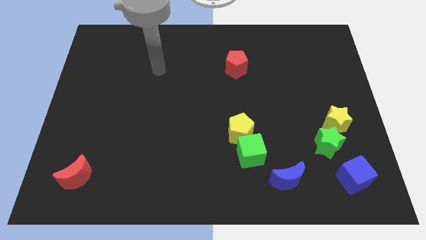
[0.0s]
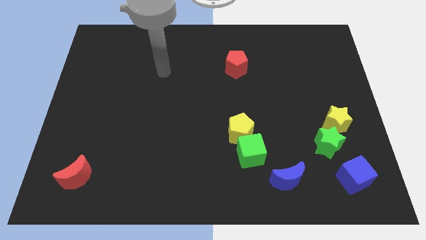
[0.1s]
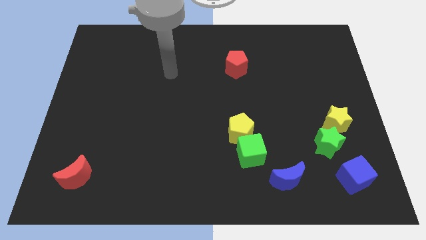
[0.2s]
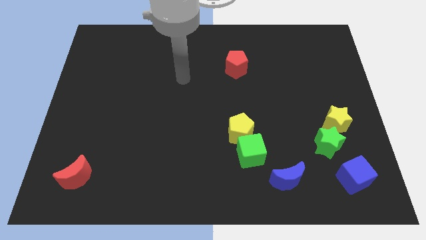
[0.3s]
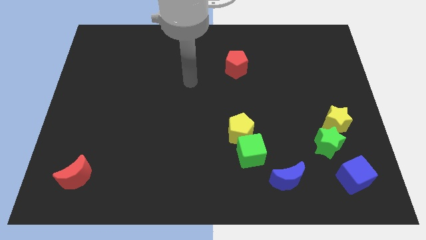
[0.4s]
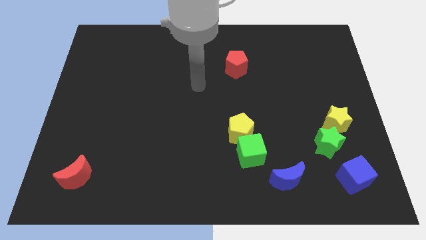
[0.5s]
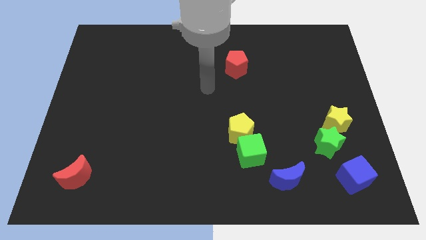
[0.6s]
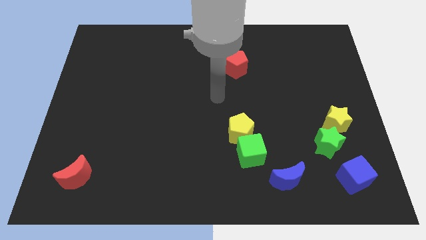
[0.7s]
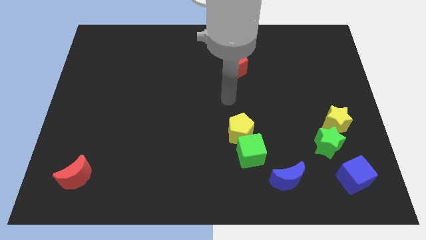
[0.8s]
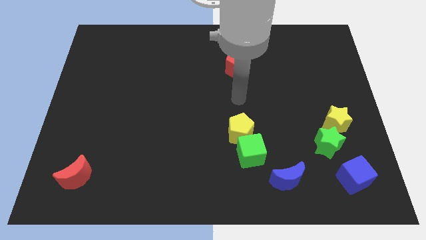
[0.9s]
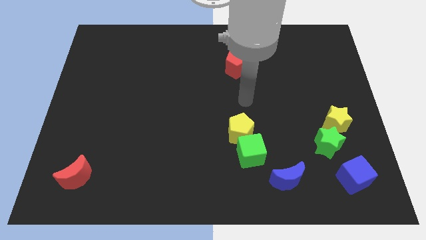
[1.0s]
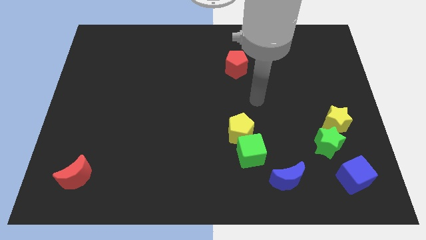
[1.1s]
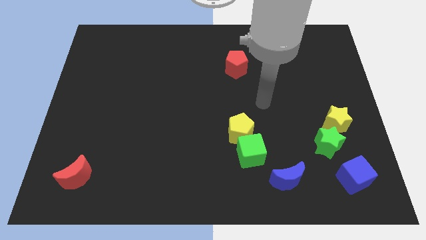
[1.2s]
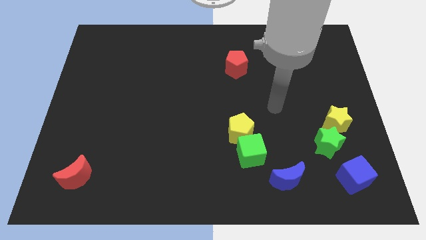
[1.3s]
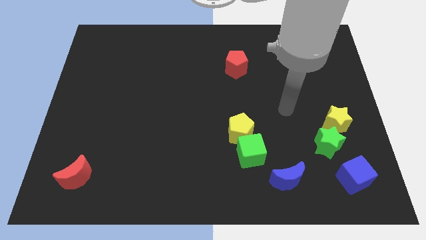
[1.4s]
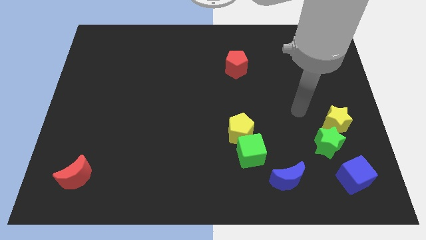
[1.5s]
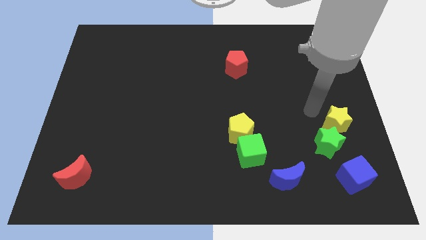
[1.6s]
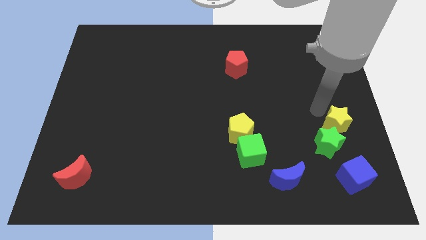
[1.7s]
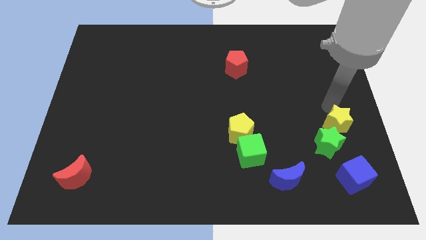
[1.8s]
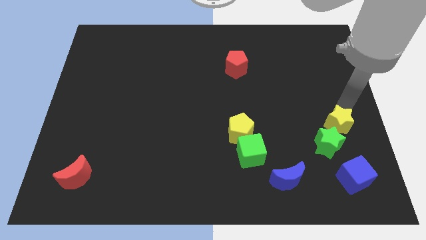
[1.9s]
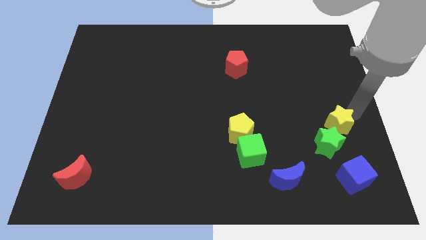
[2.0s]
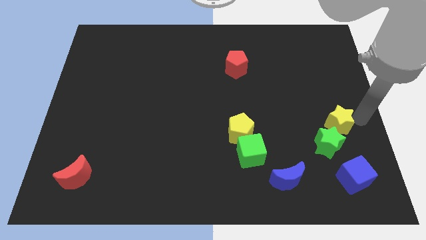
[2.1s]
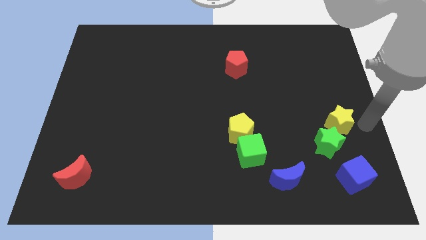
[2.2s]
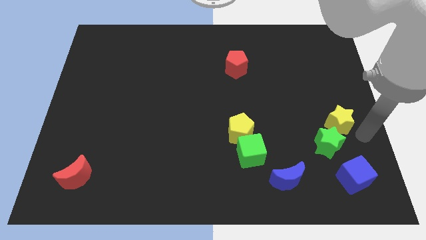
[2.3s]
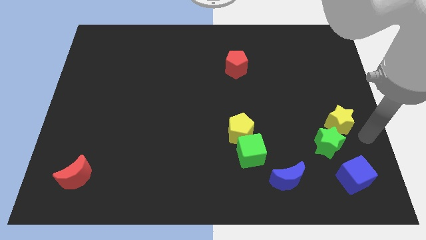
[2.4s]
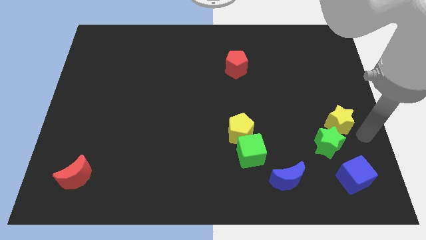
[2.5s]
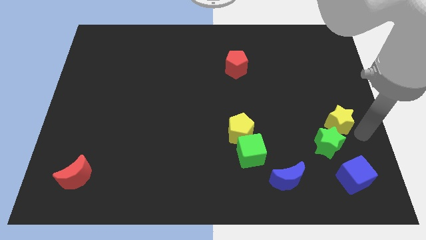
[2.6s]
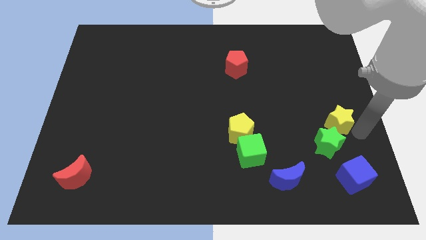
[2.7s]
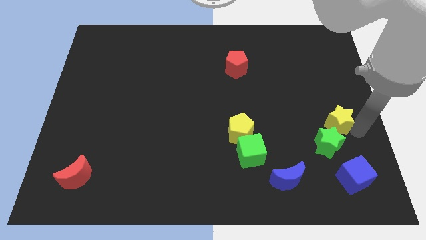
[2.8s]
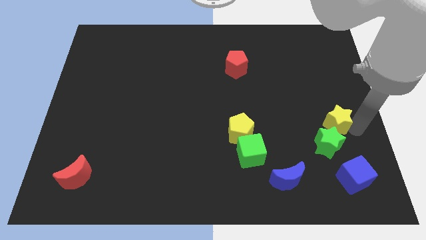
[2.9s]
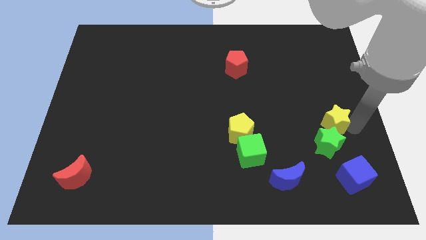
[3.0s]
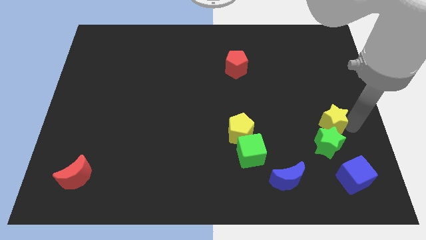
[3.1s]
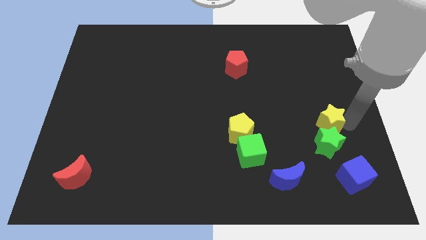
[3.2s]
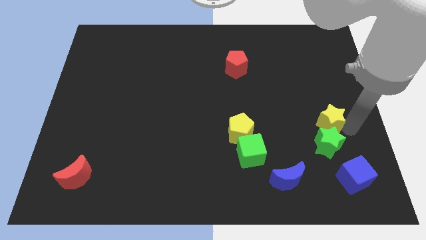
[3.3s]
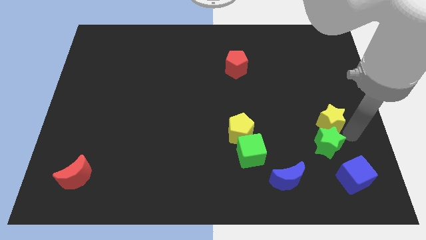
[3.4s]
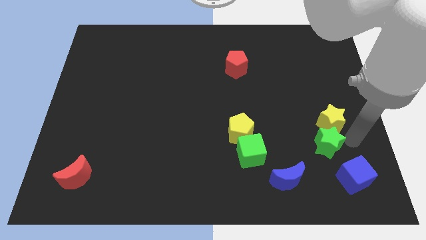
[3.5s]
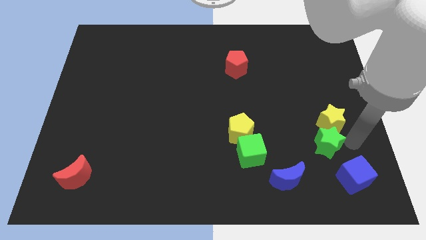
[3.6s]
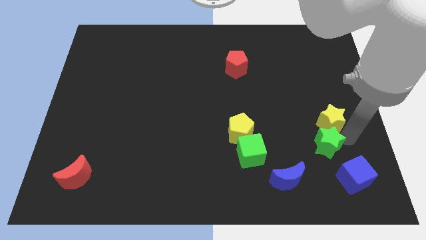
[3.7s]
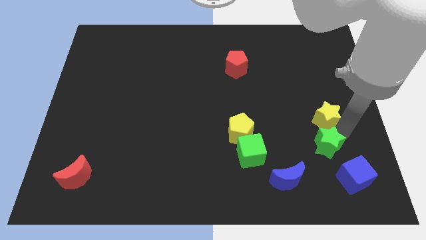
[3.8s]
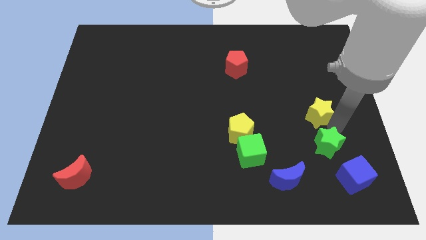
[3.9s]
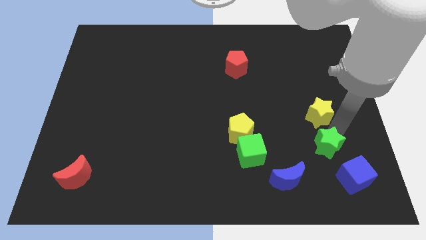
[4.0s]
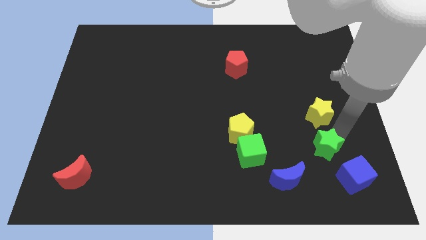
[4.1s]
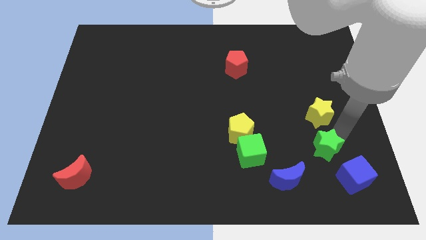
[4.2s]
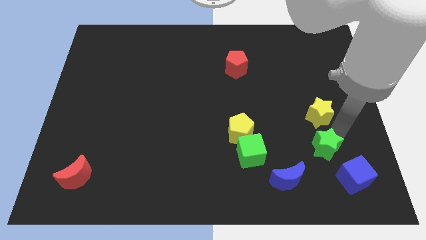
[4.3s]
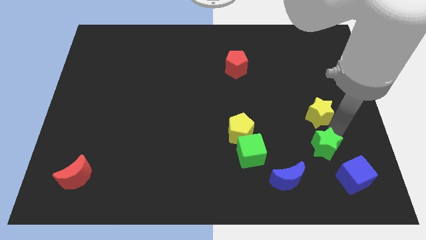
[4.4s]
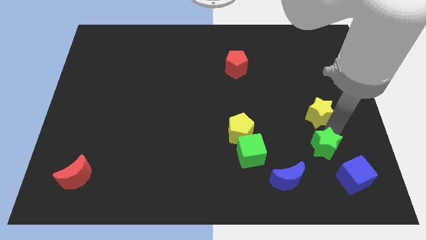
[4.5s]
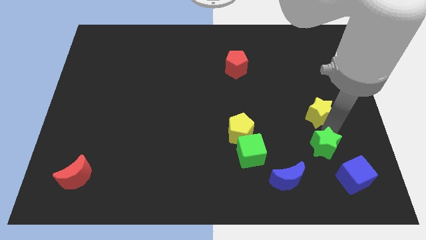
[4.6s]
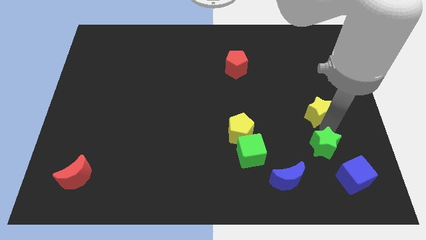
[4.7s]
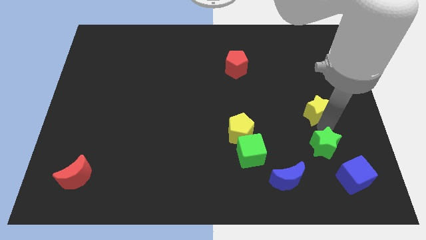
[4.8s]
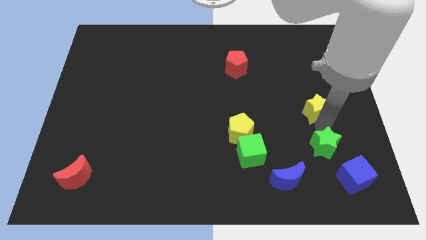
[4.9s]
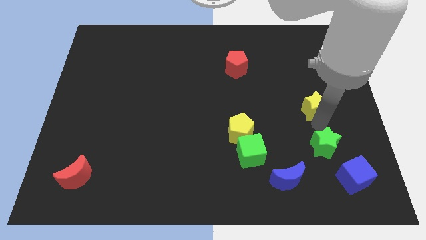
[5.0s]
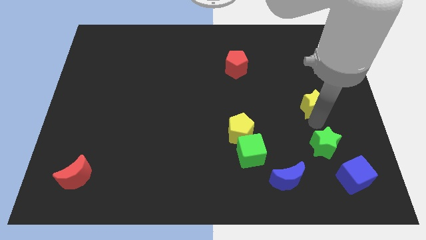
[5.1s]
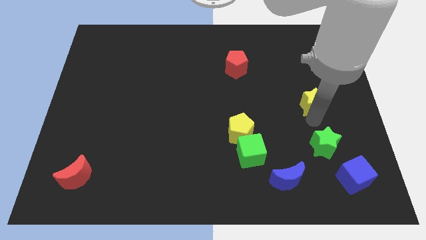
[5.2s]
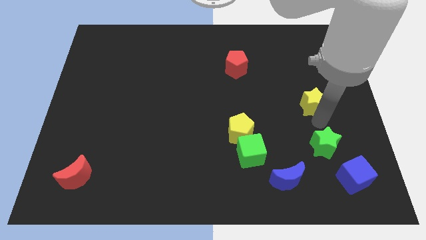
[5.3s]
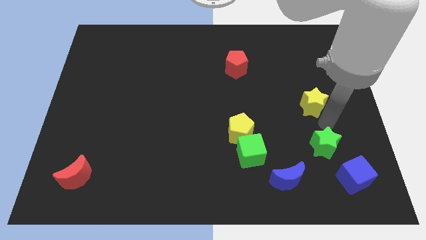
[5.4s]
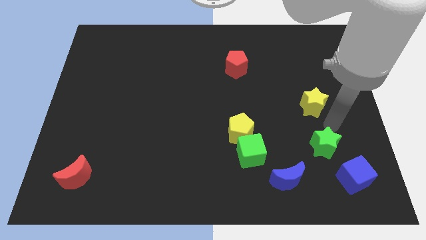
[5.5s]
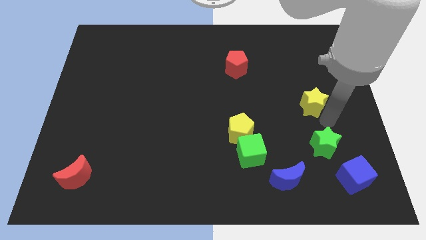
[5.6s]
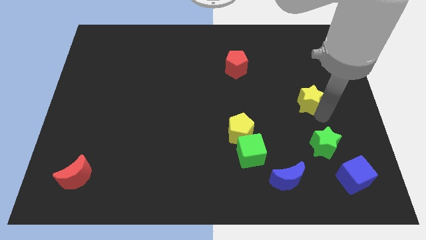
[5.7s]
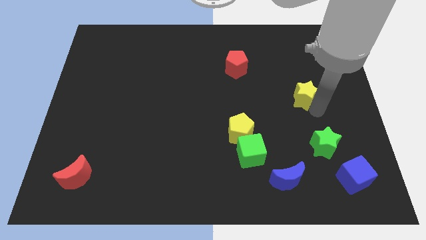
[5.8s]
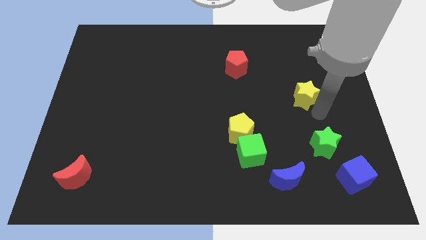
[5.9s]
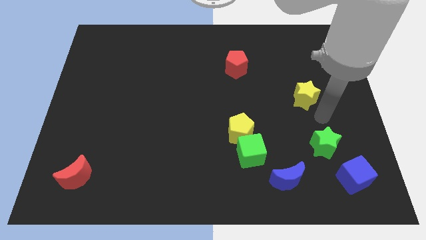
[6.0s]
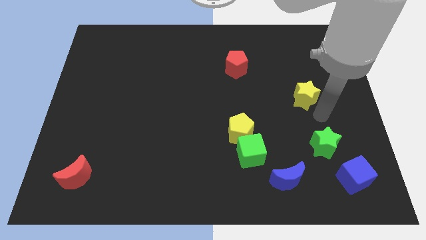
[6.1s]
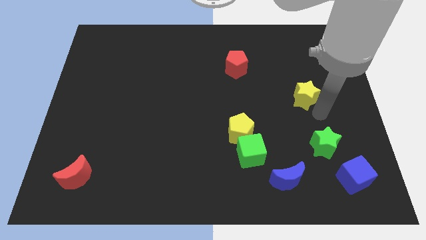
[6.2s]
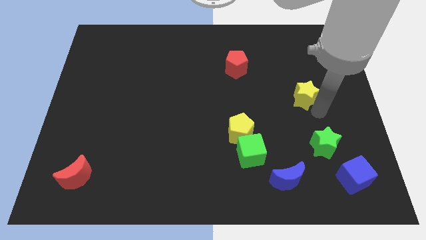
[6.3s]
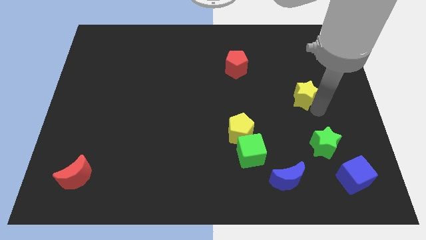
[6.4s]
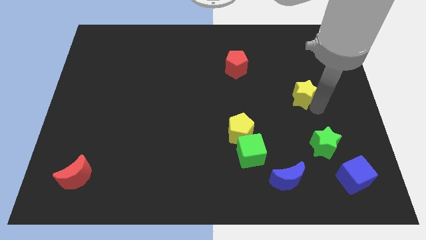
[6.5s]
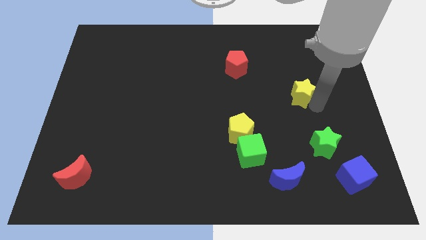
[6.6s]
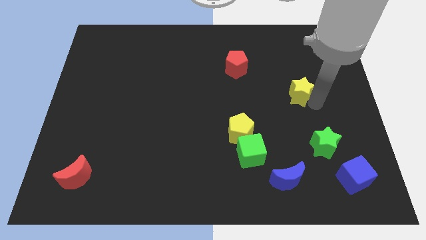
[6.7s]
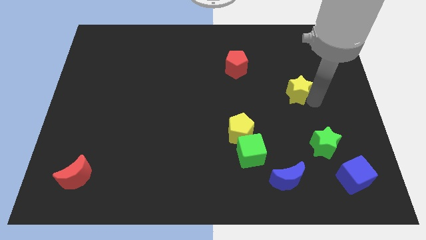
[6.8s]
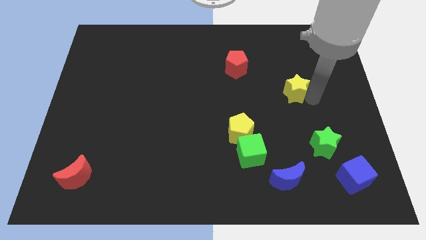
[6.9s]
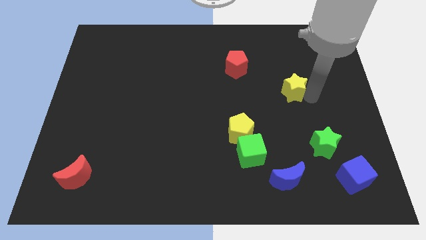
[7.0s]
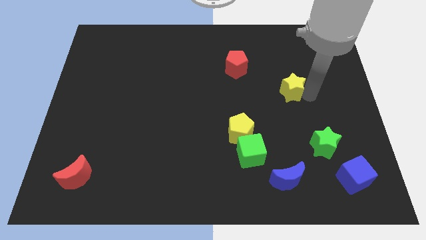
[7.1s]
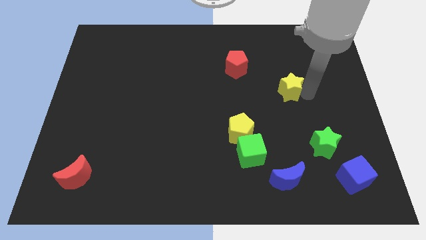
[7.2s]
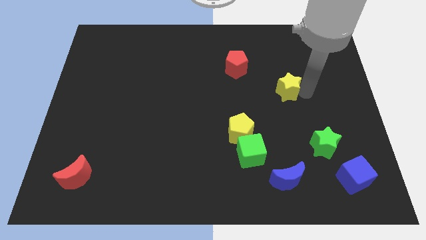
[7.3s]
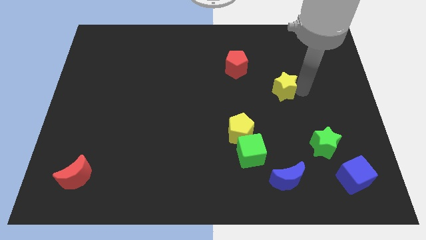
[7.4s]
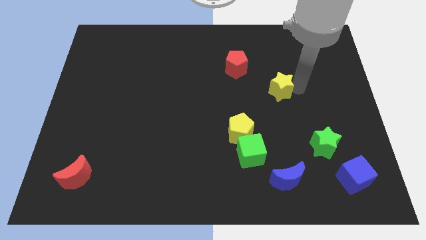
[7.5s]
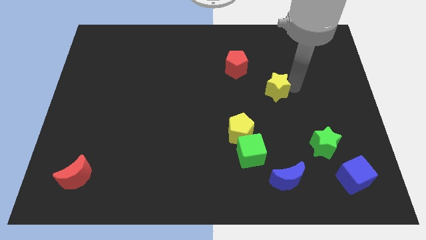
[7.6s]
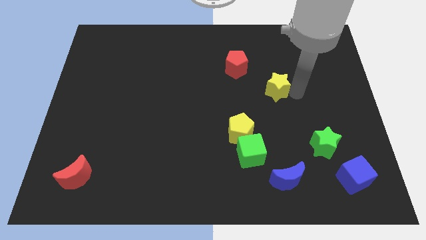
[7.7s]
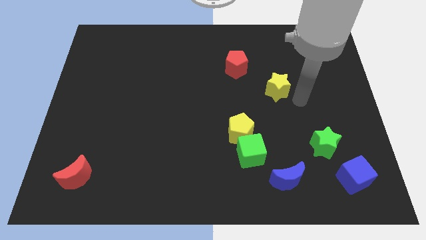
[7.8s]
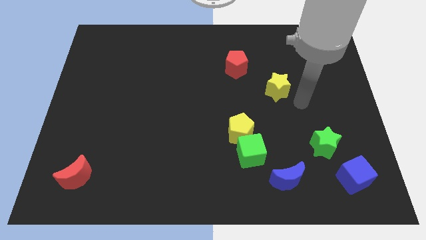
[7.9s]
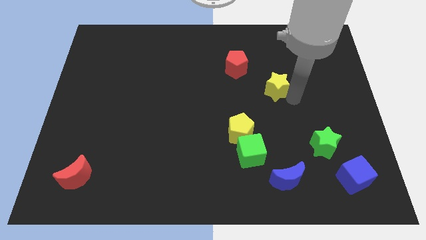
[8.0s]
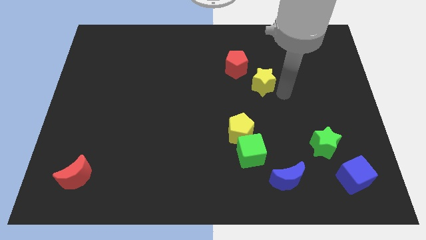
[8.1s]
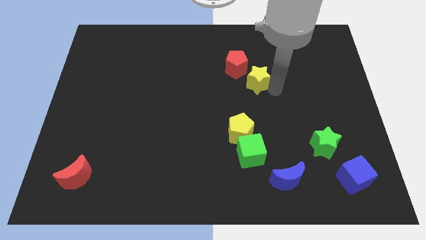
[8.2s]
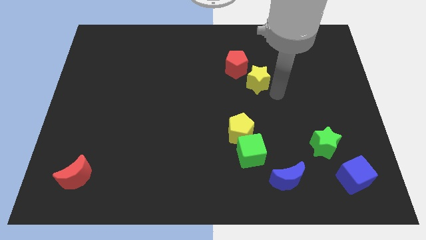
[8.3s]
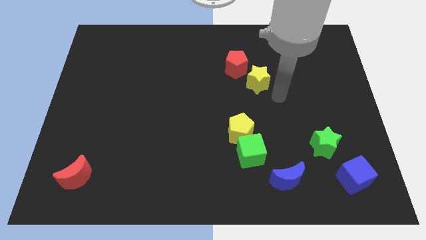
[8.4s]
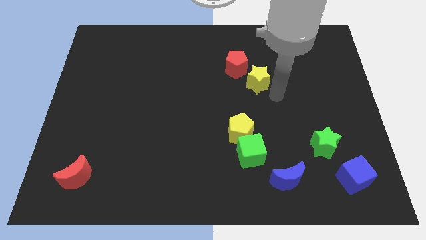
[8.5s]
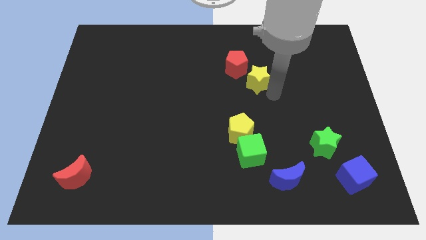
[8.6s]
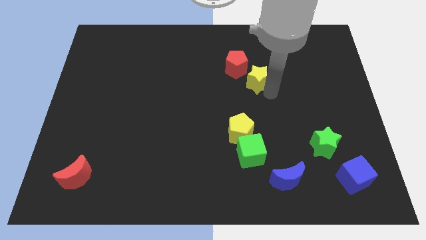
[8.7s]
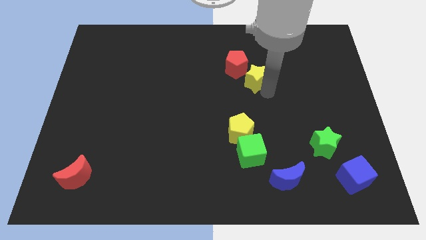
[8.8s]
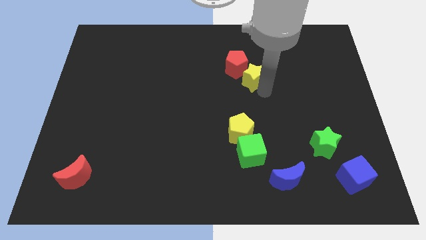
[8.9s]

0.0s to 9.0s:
slide the yellow star towards the red pentagon
